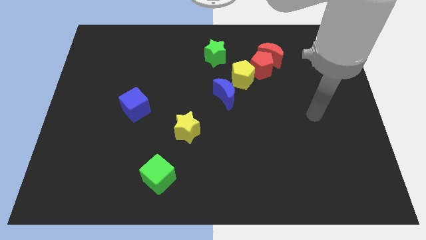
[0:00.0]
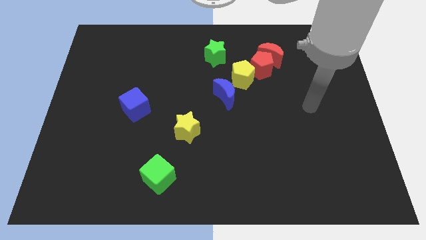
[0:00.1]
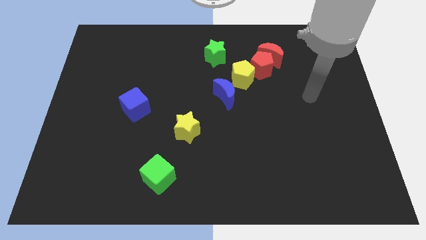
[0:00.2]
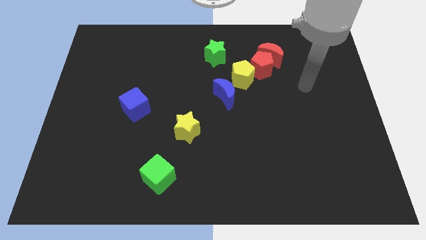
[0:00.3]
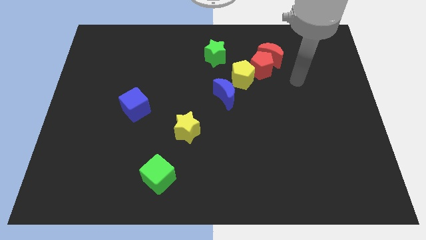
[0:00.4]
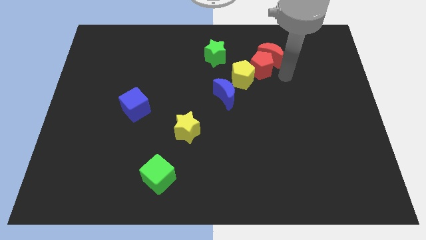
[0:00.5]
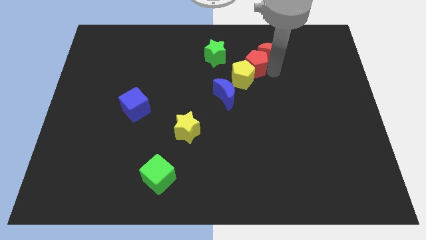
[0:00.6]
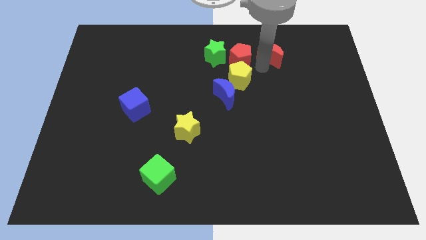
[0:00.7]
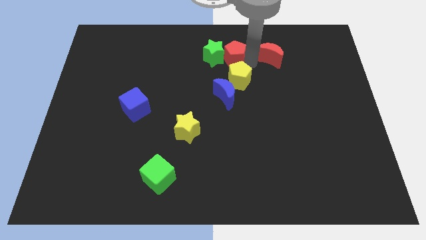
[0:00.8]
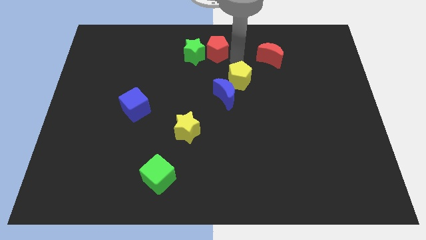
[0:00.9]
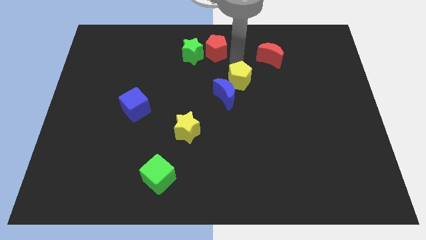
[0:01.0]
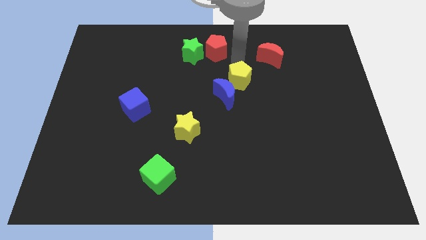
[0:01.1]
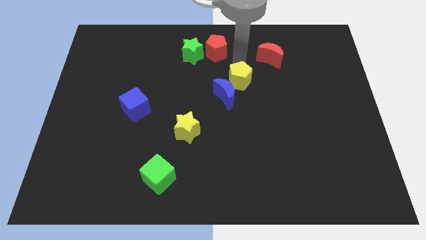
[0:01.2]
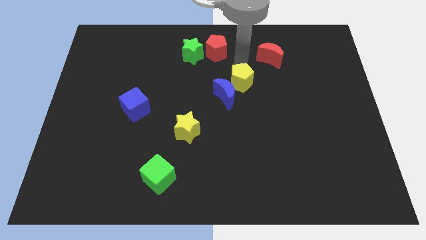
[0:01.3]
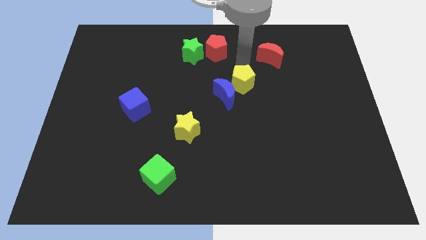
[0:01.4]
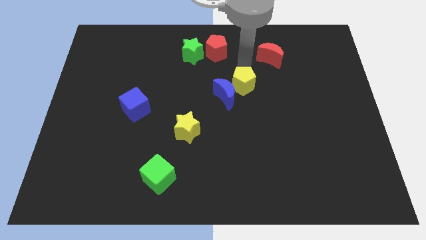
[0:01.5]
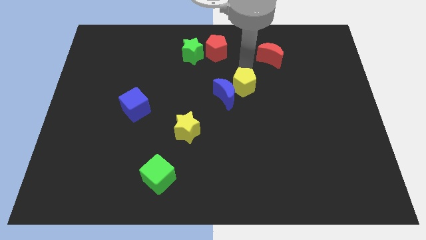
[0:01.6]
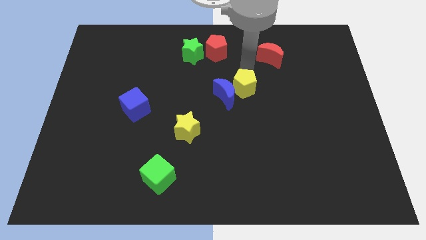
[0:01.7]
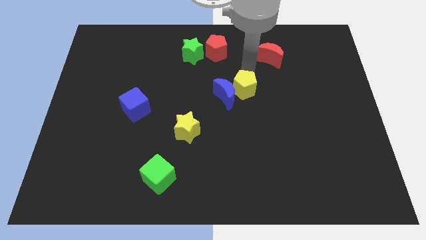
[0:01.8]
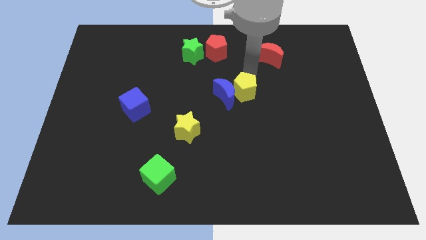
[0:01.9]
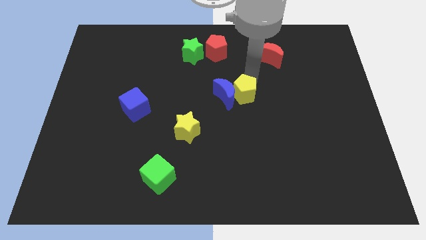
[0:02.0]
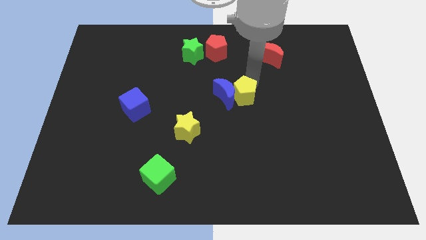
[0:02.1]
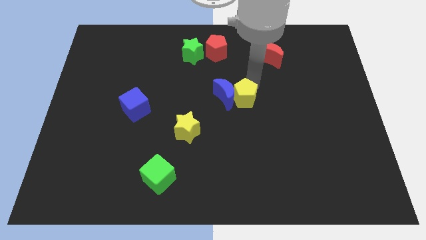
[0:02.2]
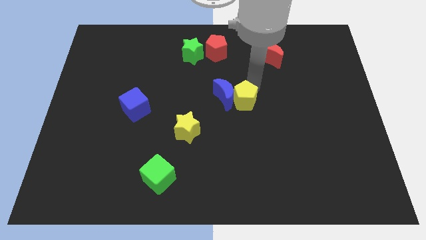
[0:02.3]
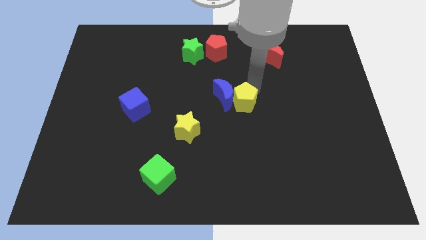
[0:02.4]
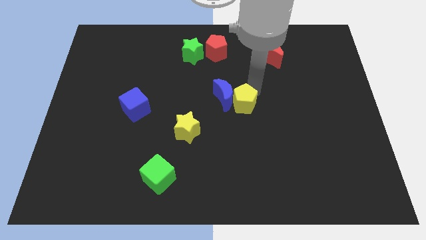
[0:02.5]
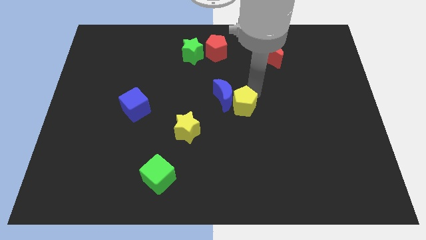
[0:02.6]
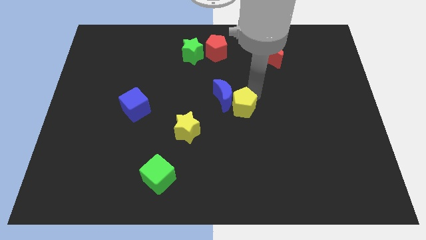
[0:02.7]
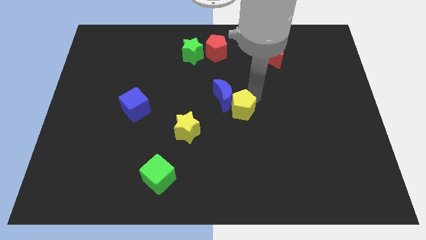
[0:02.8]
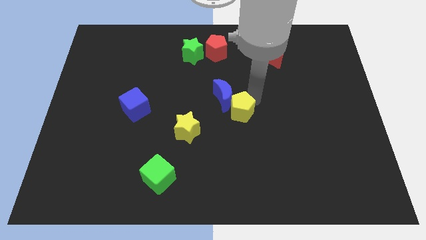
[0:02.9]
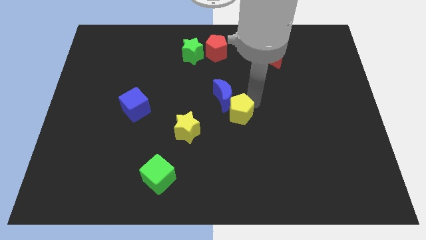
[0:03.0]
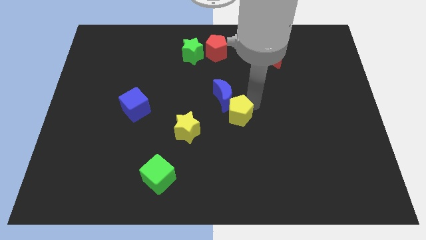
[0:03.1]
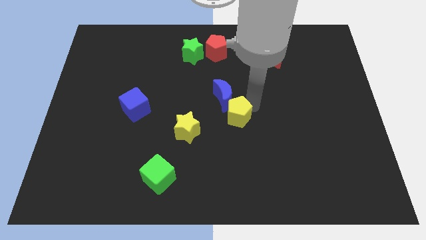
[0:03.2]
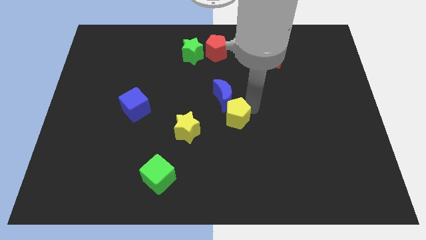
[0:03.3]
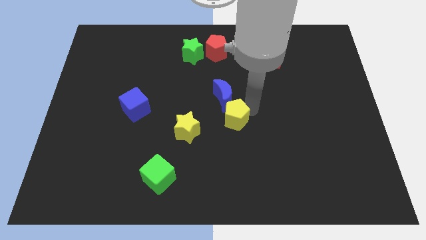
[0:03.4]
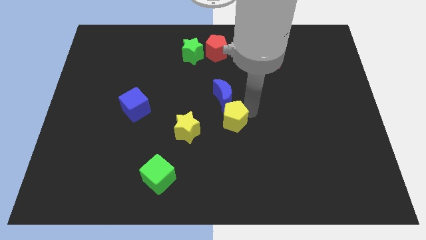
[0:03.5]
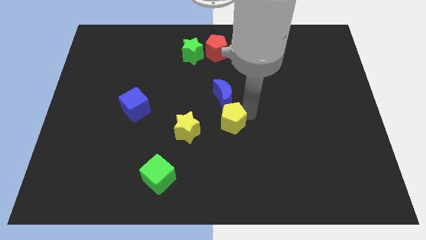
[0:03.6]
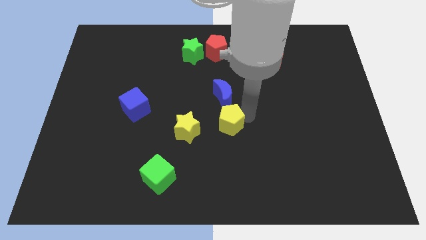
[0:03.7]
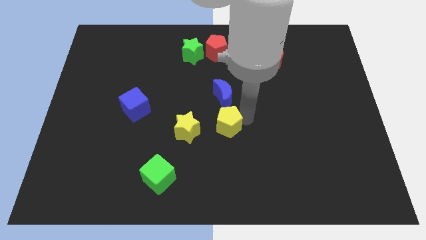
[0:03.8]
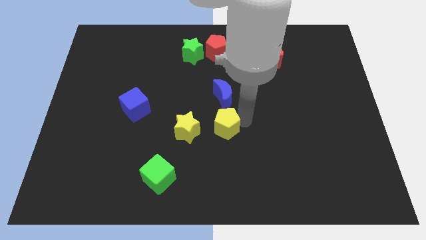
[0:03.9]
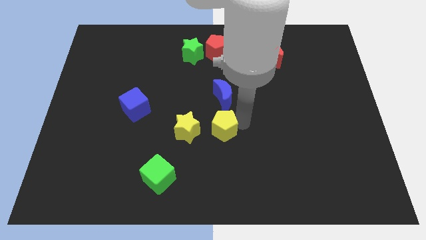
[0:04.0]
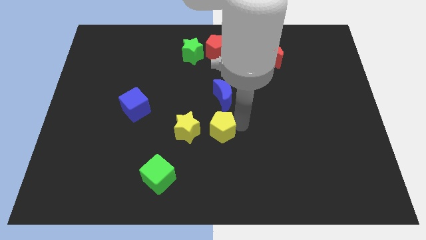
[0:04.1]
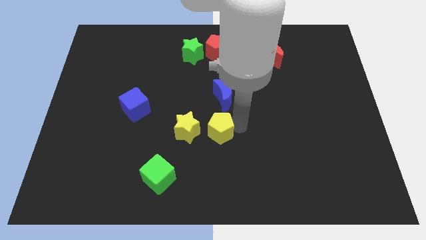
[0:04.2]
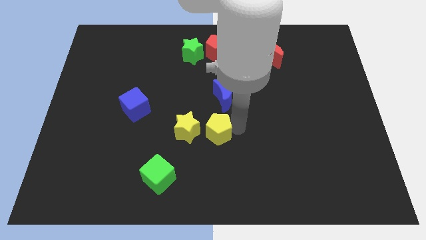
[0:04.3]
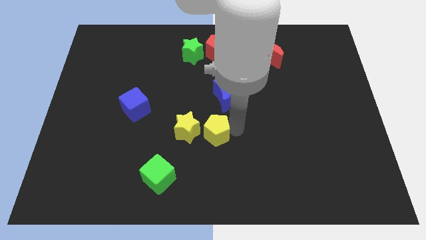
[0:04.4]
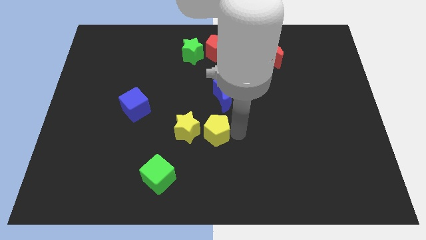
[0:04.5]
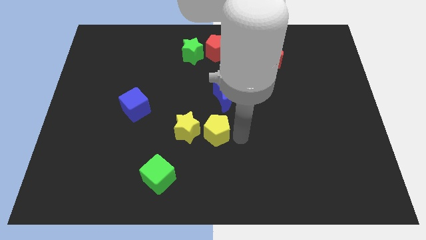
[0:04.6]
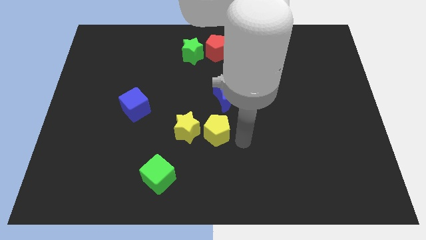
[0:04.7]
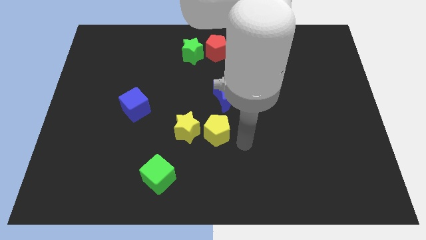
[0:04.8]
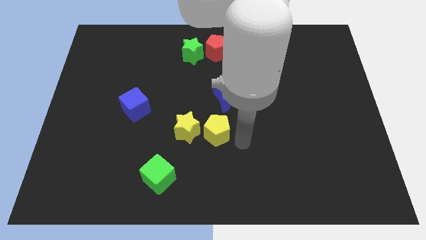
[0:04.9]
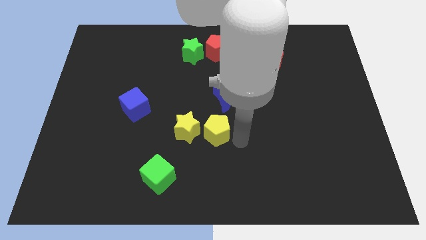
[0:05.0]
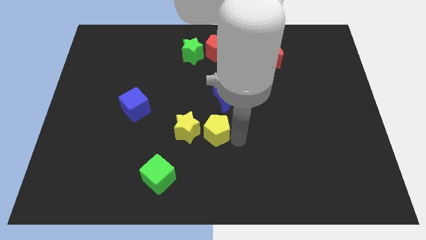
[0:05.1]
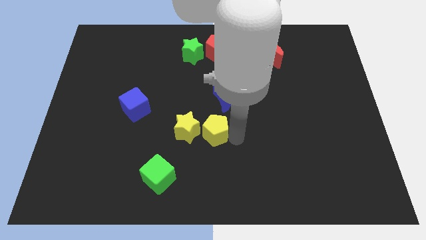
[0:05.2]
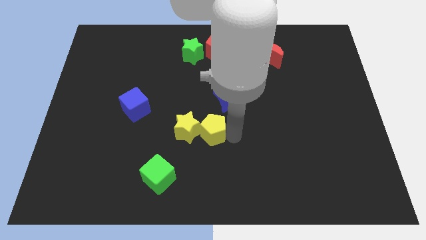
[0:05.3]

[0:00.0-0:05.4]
move the yellow pentagon to the yellow star

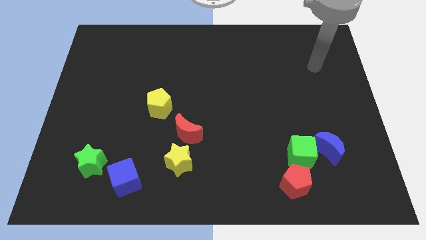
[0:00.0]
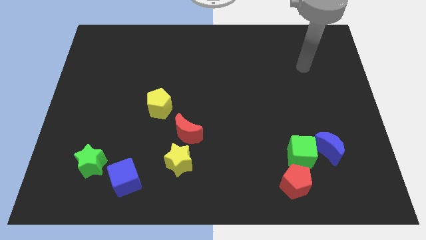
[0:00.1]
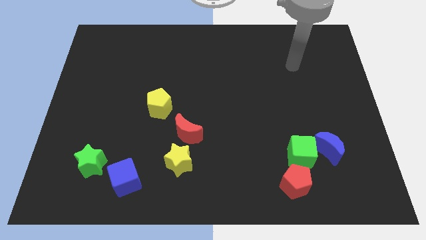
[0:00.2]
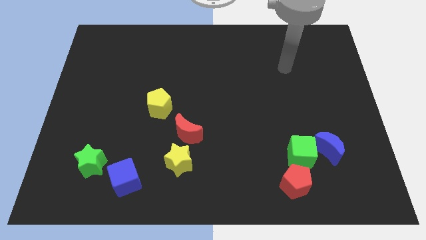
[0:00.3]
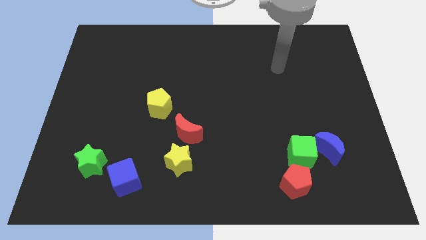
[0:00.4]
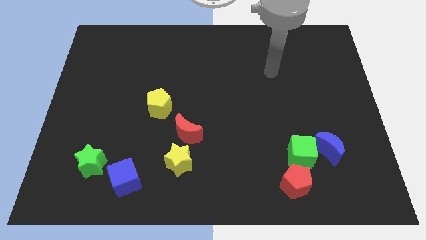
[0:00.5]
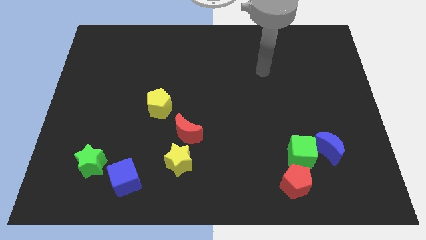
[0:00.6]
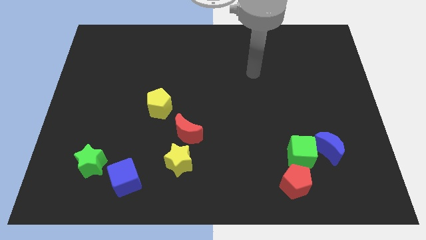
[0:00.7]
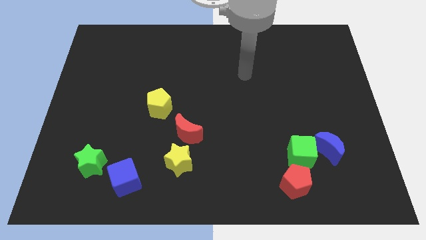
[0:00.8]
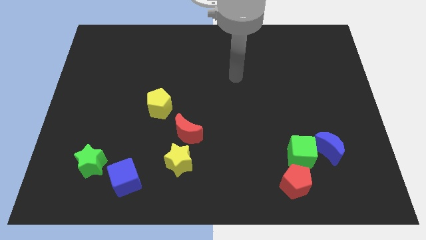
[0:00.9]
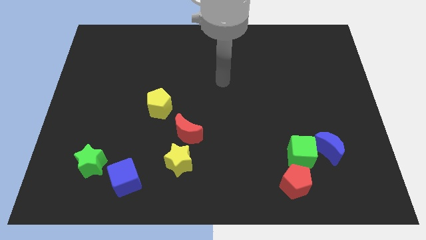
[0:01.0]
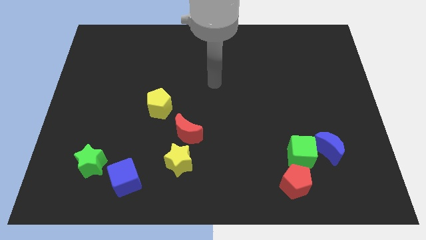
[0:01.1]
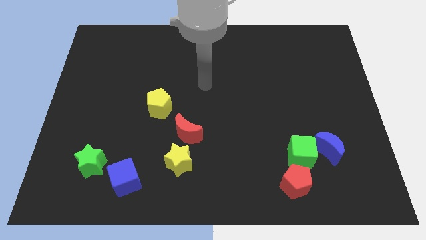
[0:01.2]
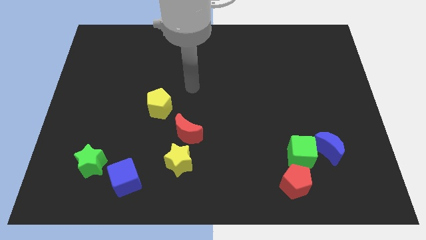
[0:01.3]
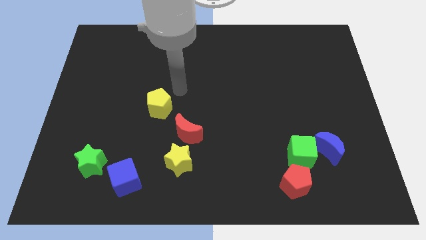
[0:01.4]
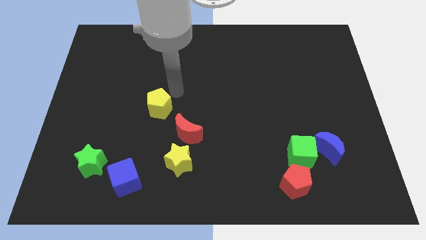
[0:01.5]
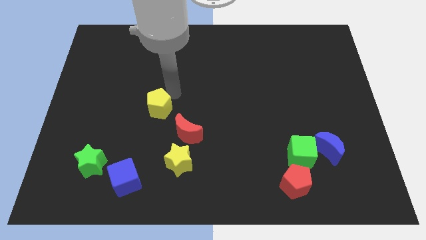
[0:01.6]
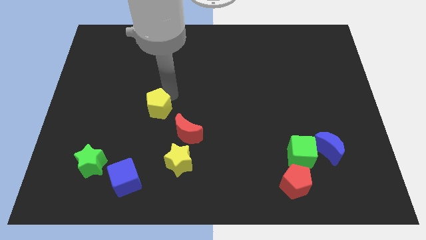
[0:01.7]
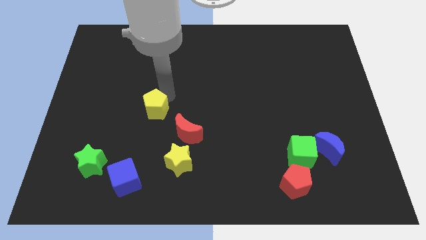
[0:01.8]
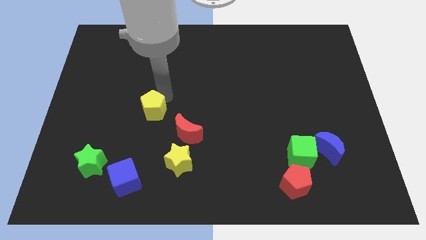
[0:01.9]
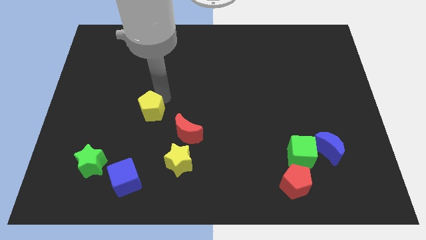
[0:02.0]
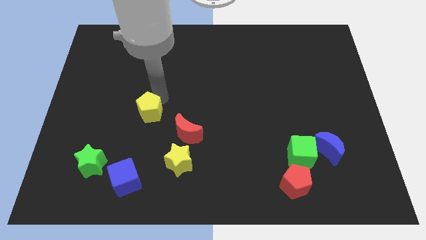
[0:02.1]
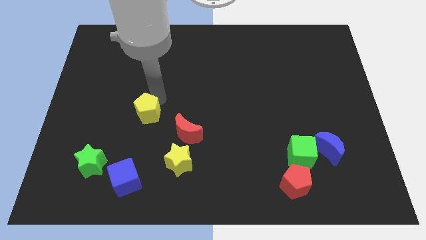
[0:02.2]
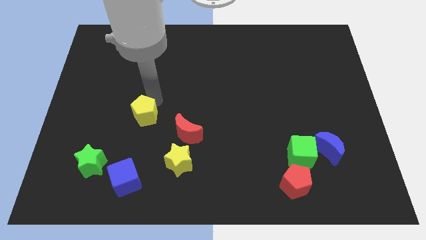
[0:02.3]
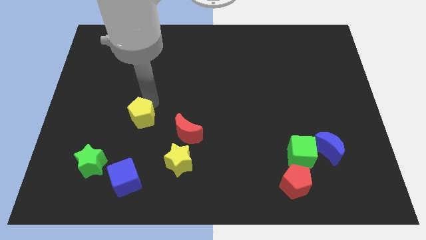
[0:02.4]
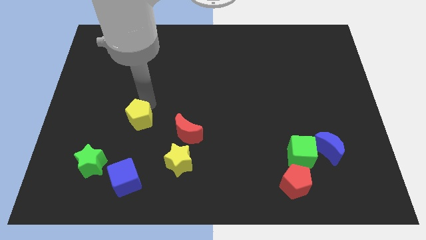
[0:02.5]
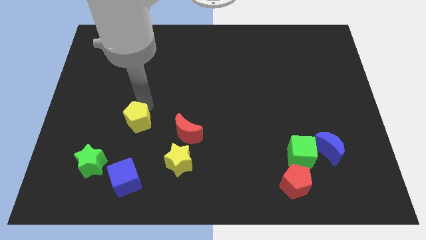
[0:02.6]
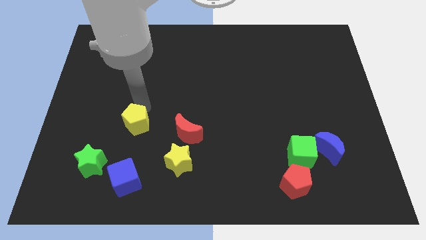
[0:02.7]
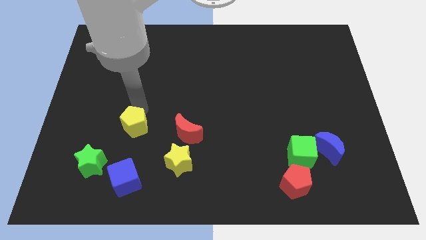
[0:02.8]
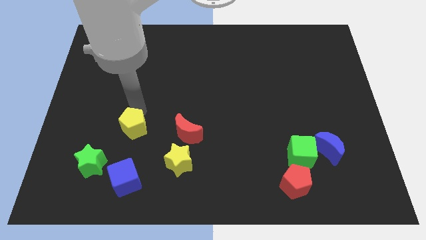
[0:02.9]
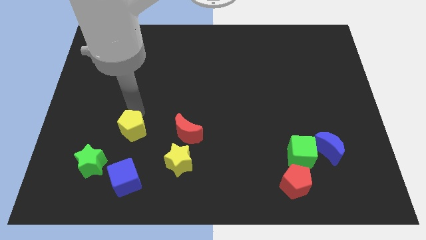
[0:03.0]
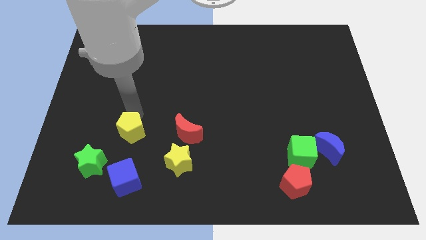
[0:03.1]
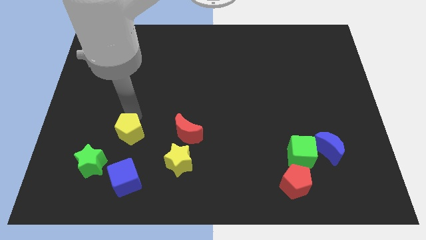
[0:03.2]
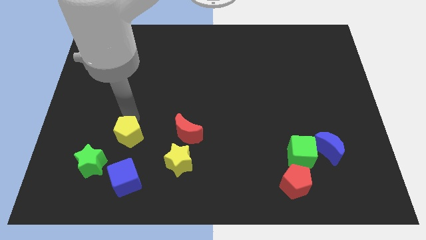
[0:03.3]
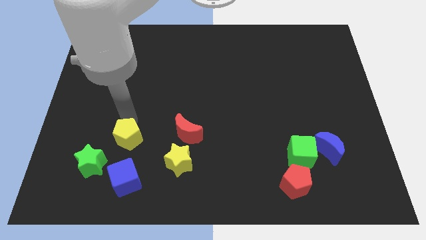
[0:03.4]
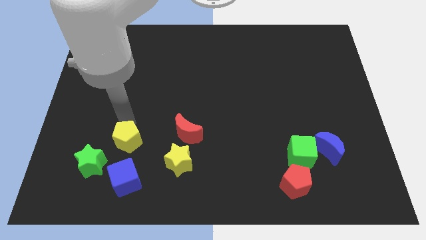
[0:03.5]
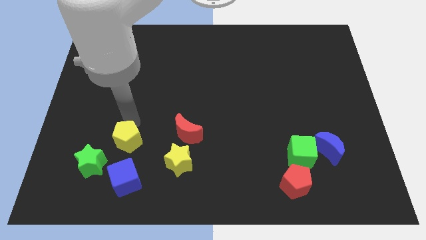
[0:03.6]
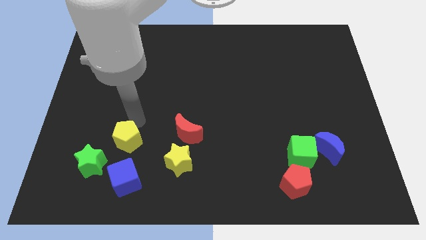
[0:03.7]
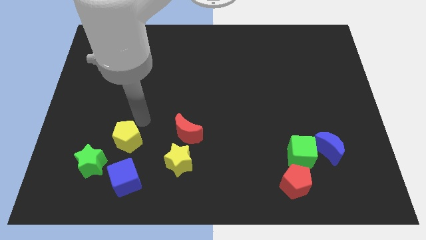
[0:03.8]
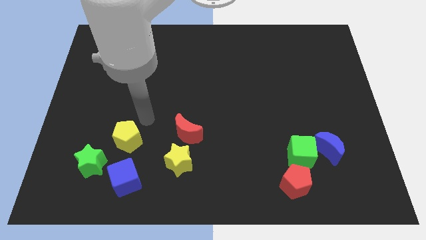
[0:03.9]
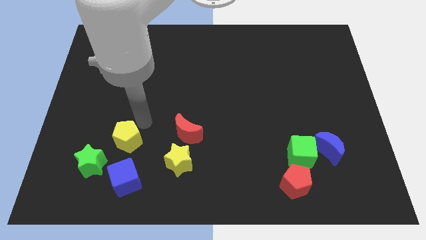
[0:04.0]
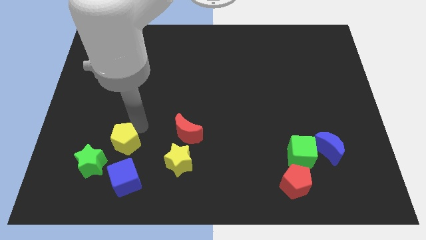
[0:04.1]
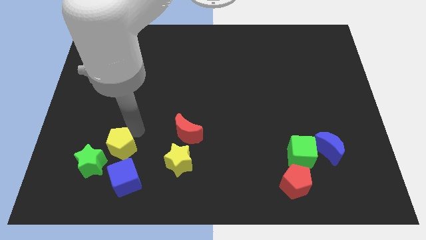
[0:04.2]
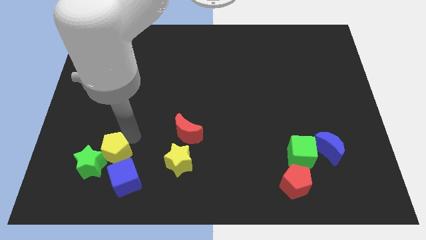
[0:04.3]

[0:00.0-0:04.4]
slide the yellow pentagon towards the green star
